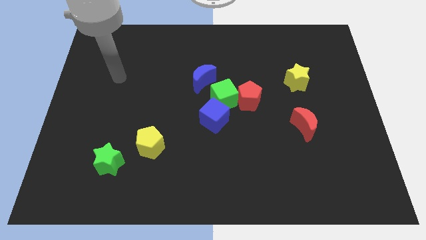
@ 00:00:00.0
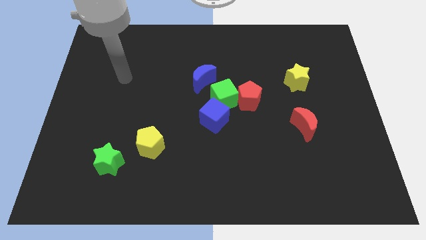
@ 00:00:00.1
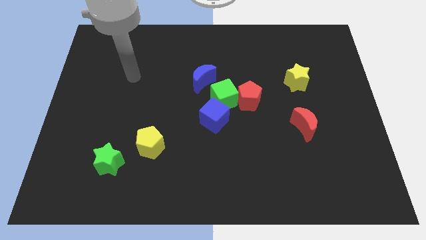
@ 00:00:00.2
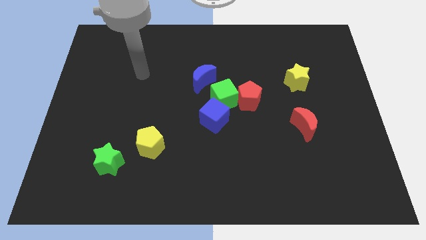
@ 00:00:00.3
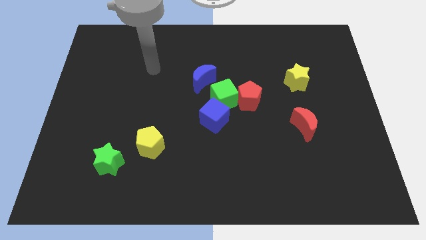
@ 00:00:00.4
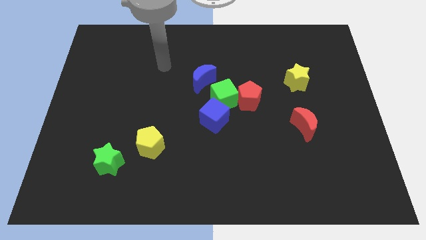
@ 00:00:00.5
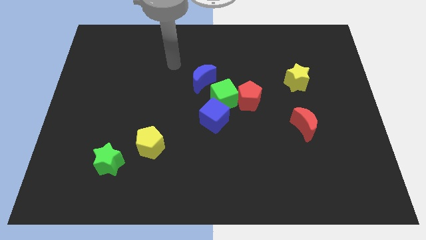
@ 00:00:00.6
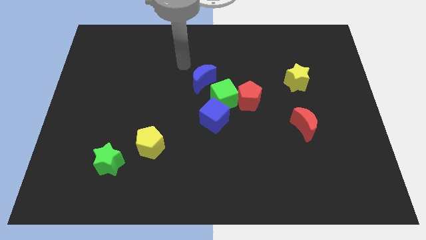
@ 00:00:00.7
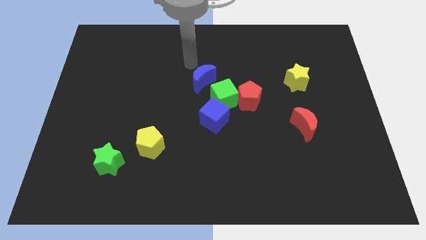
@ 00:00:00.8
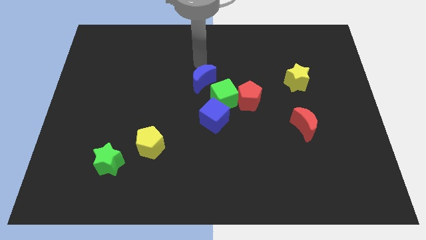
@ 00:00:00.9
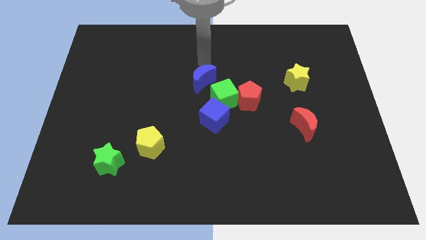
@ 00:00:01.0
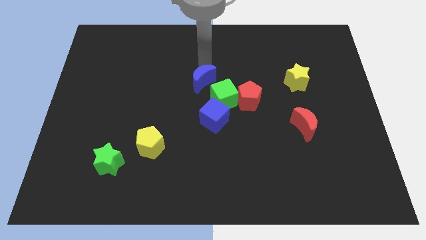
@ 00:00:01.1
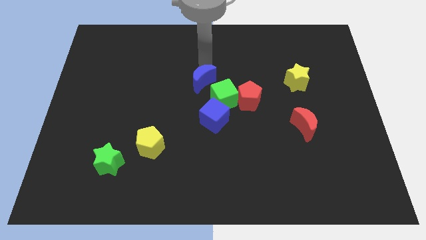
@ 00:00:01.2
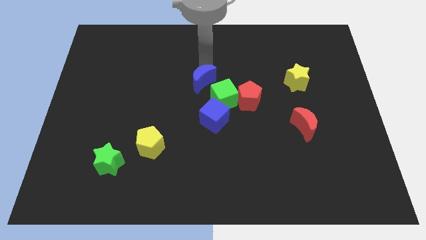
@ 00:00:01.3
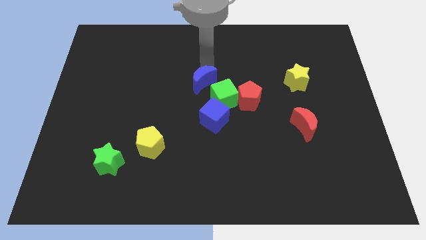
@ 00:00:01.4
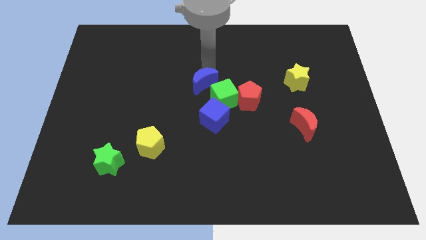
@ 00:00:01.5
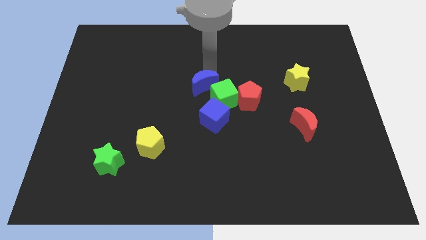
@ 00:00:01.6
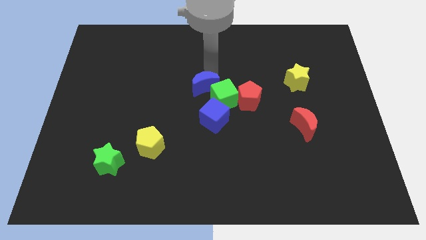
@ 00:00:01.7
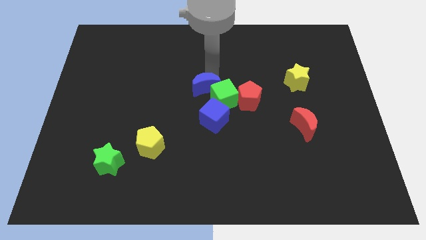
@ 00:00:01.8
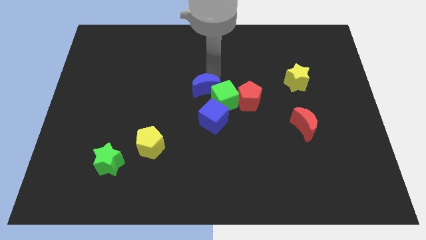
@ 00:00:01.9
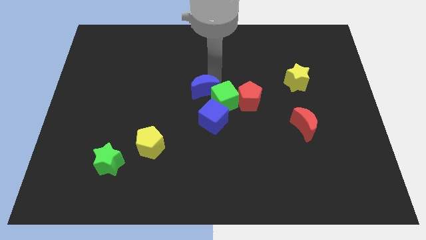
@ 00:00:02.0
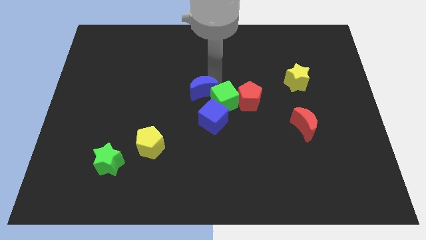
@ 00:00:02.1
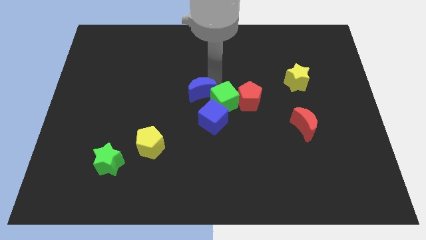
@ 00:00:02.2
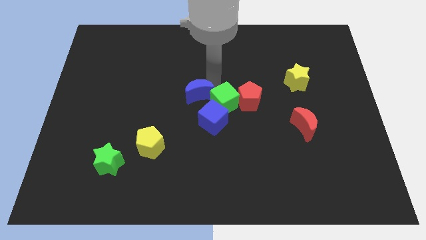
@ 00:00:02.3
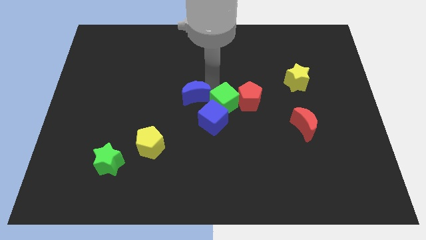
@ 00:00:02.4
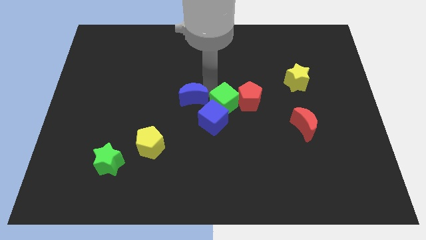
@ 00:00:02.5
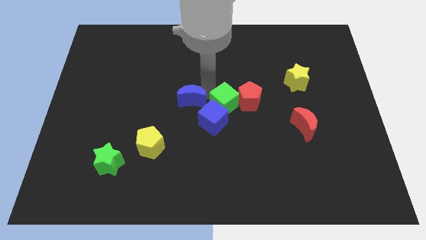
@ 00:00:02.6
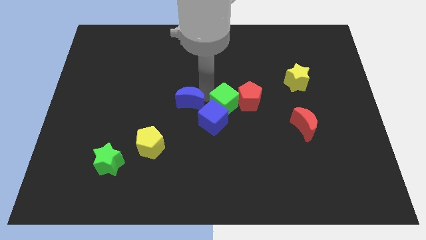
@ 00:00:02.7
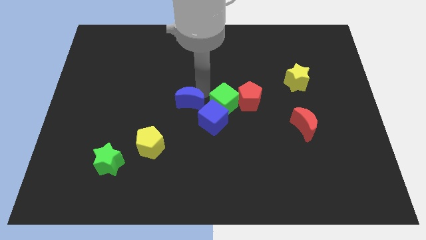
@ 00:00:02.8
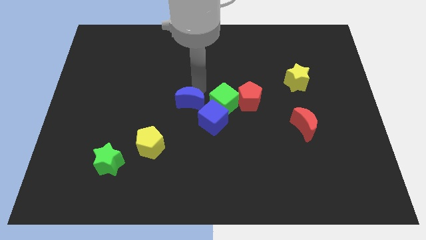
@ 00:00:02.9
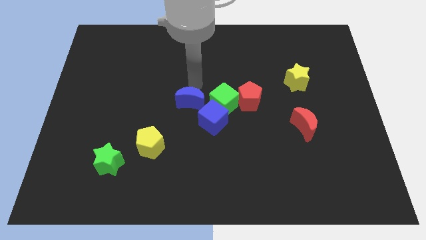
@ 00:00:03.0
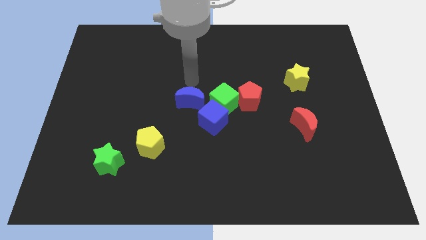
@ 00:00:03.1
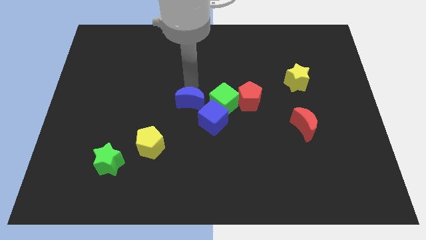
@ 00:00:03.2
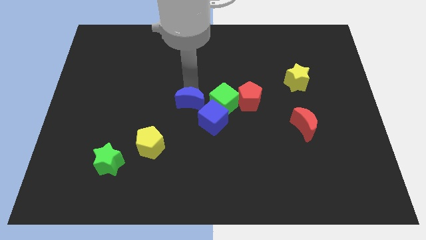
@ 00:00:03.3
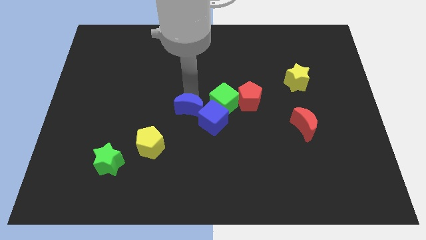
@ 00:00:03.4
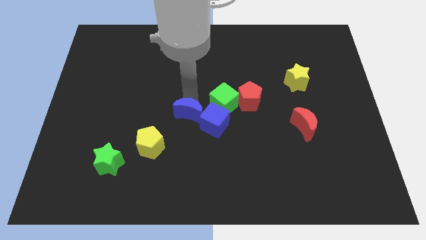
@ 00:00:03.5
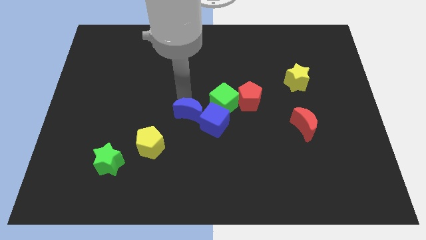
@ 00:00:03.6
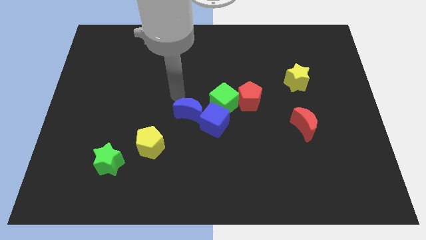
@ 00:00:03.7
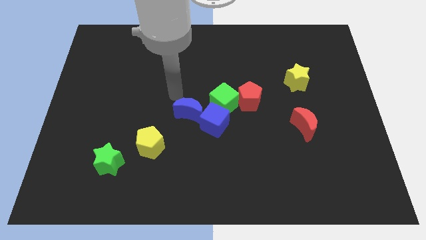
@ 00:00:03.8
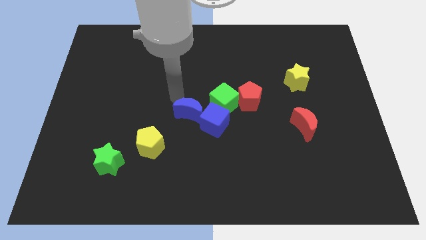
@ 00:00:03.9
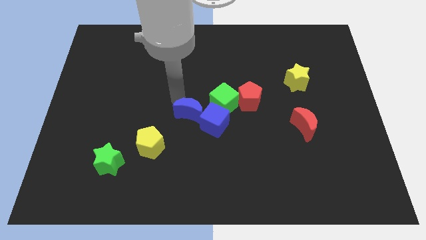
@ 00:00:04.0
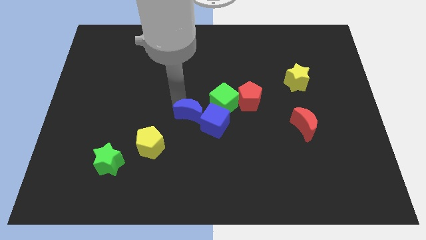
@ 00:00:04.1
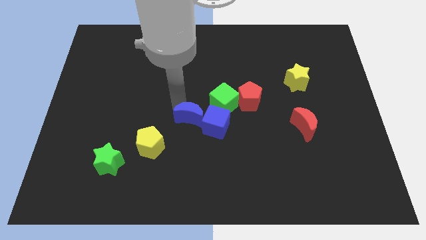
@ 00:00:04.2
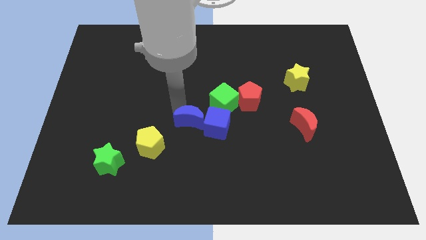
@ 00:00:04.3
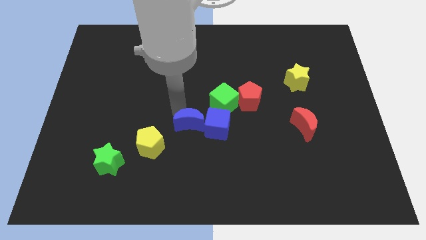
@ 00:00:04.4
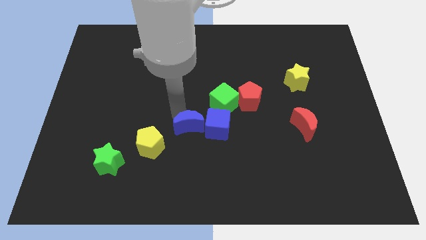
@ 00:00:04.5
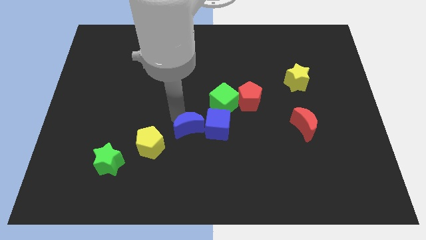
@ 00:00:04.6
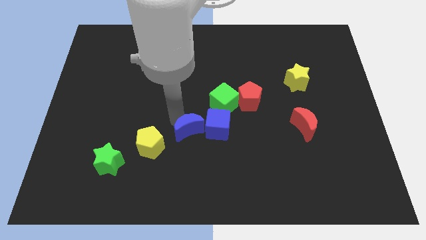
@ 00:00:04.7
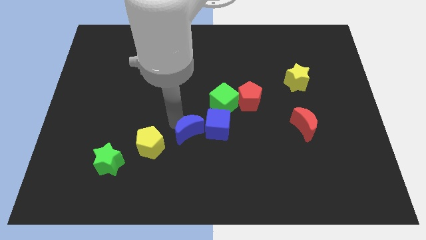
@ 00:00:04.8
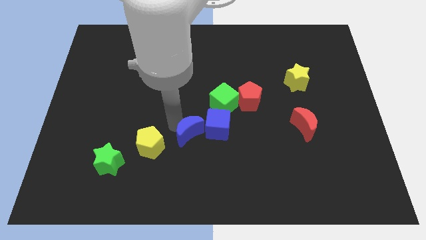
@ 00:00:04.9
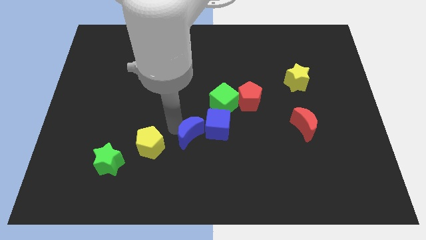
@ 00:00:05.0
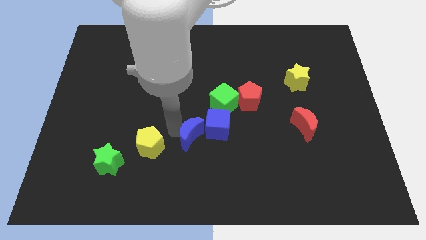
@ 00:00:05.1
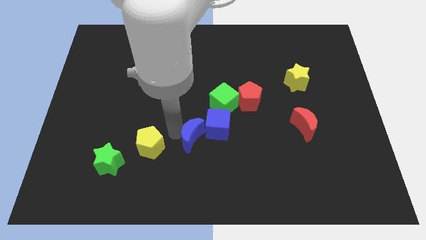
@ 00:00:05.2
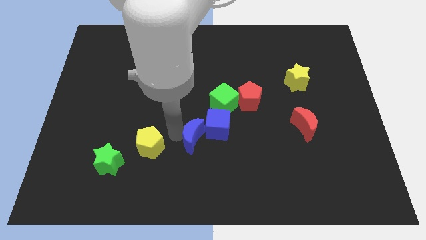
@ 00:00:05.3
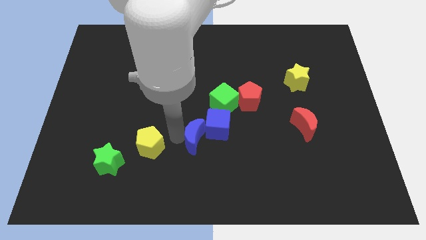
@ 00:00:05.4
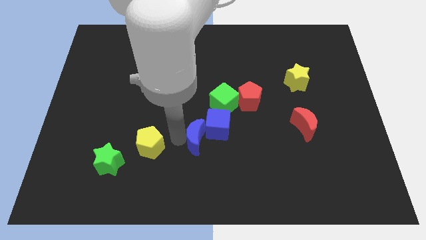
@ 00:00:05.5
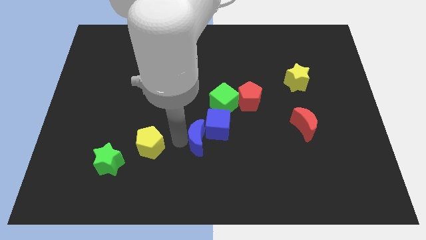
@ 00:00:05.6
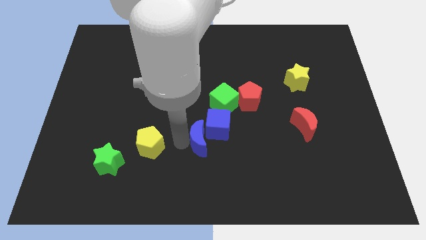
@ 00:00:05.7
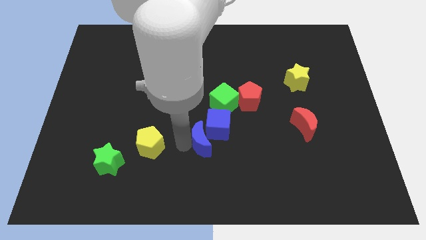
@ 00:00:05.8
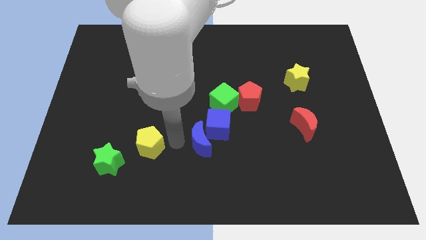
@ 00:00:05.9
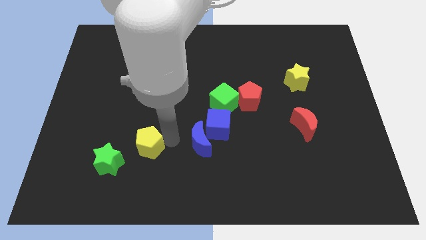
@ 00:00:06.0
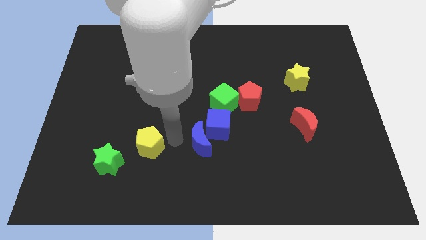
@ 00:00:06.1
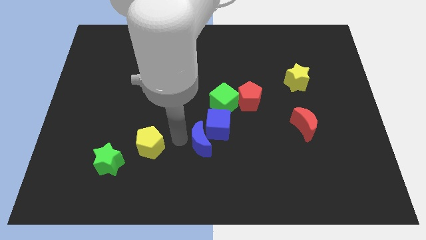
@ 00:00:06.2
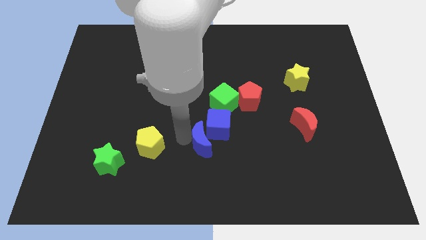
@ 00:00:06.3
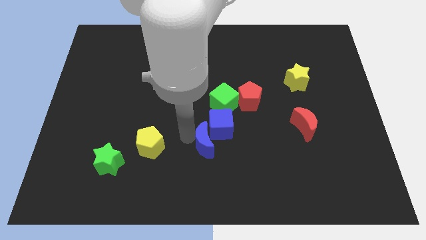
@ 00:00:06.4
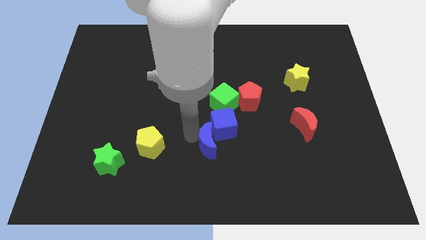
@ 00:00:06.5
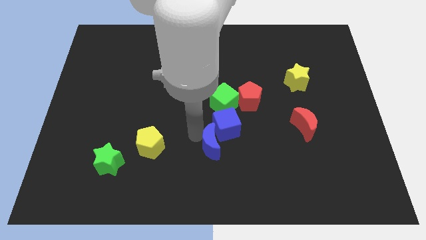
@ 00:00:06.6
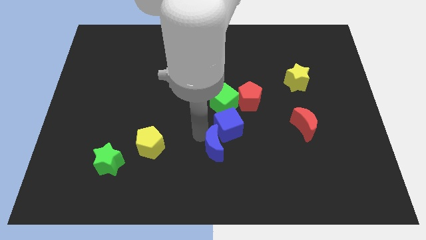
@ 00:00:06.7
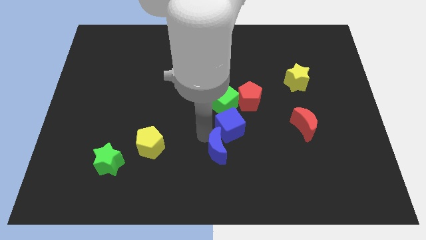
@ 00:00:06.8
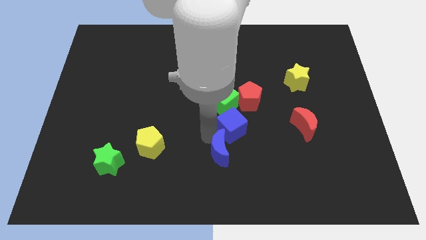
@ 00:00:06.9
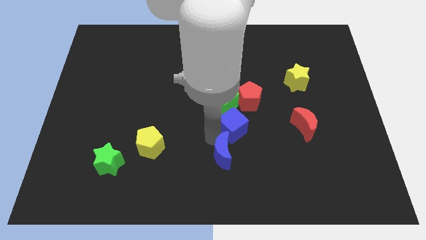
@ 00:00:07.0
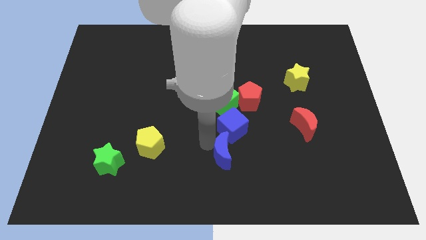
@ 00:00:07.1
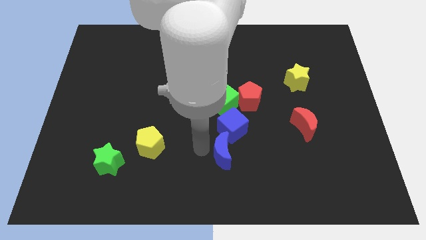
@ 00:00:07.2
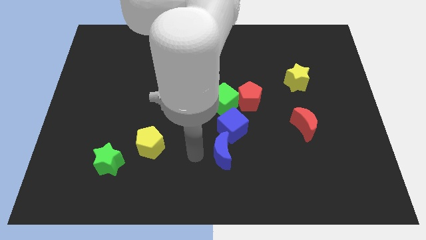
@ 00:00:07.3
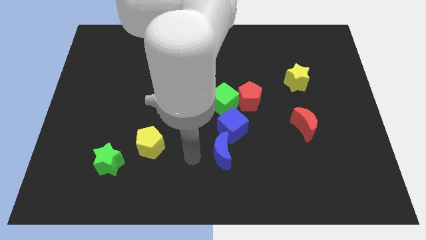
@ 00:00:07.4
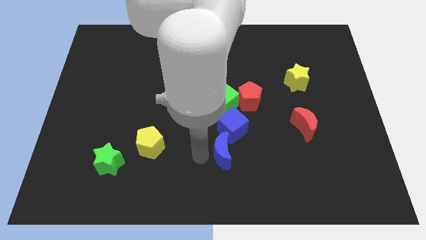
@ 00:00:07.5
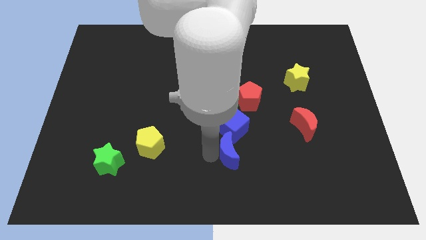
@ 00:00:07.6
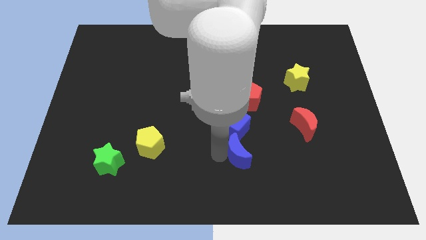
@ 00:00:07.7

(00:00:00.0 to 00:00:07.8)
slide the blue moon to the bottom right of the blue cube
